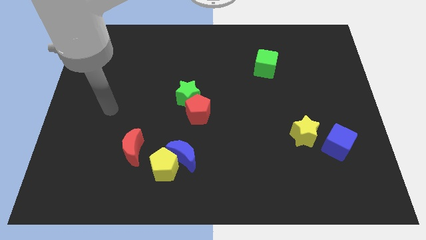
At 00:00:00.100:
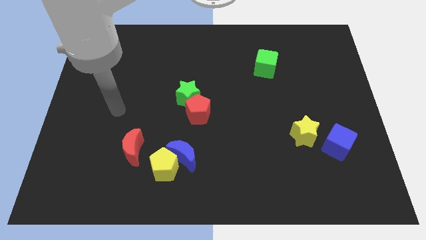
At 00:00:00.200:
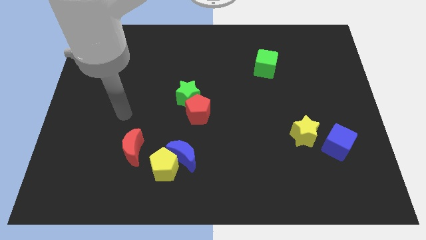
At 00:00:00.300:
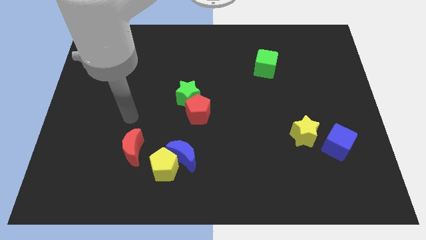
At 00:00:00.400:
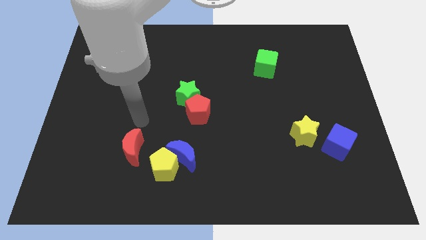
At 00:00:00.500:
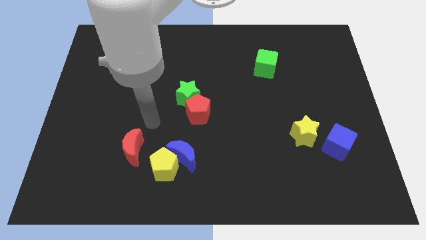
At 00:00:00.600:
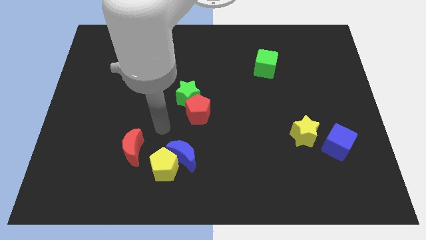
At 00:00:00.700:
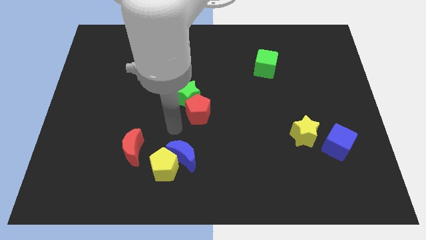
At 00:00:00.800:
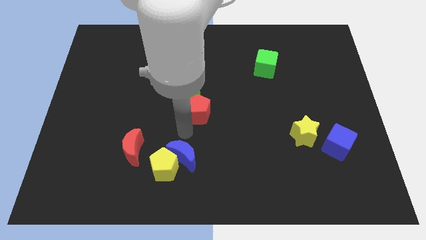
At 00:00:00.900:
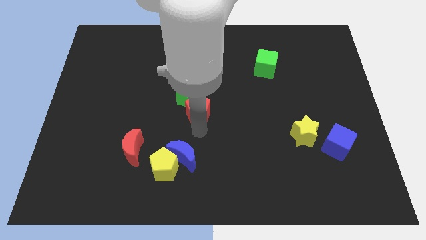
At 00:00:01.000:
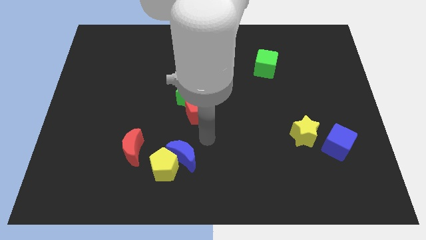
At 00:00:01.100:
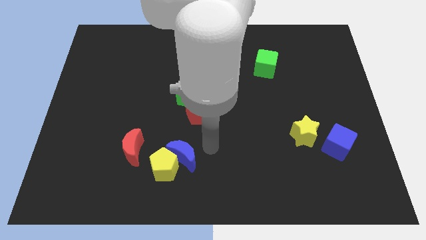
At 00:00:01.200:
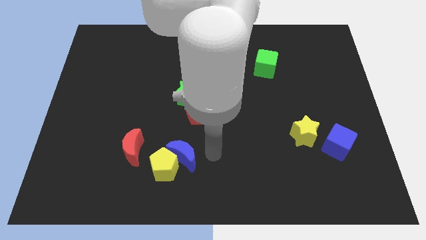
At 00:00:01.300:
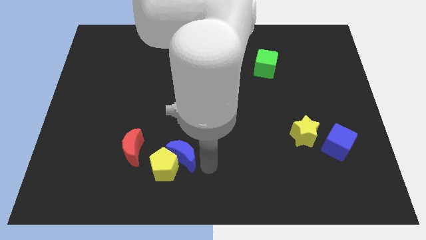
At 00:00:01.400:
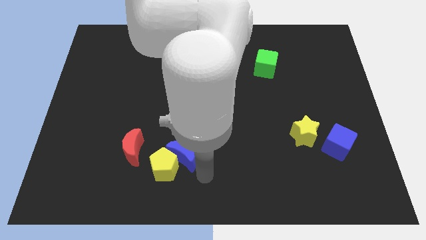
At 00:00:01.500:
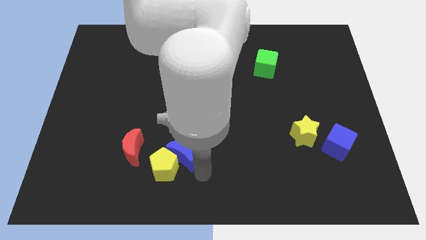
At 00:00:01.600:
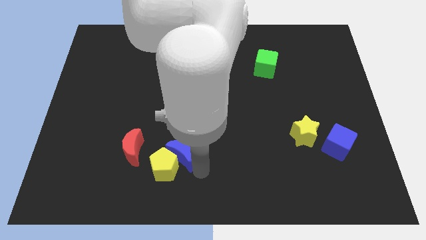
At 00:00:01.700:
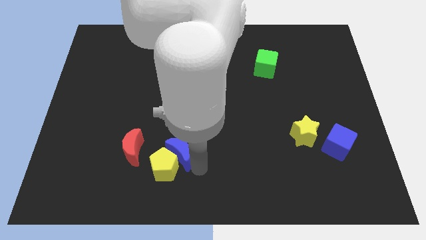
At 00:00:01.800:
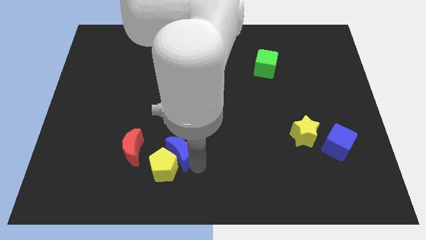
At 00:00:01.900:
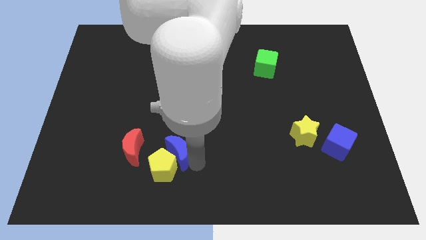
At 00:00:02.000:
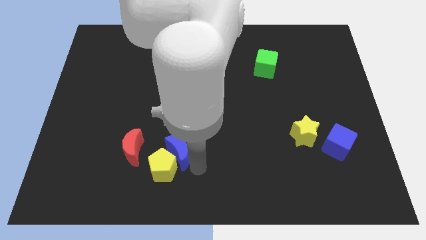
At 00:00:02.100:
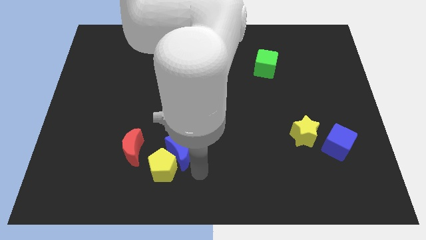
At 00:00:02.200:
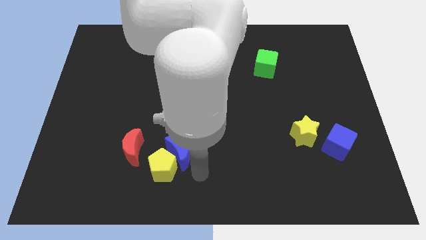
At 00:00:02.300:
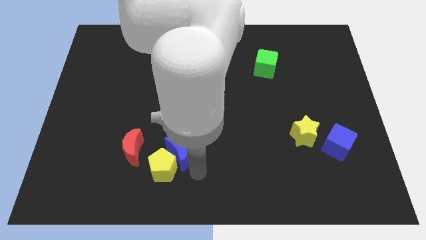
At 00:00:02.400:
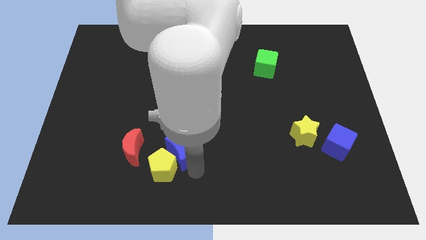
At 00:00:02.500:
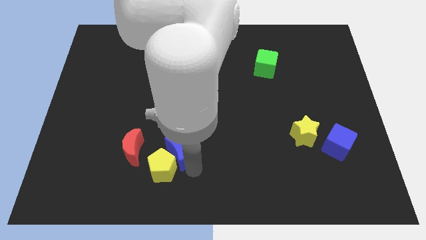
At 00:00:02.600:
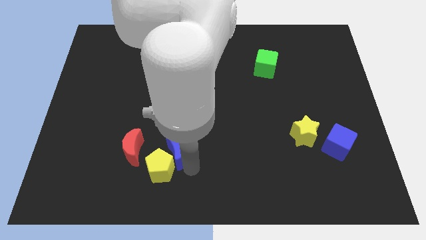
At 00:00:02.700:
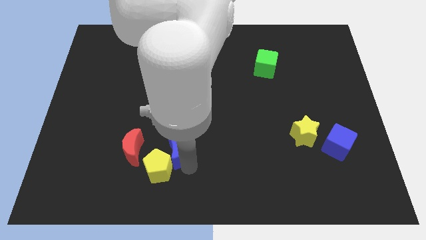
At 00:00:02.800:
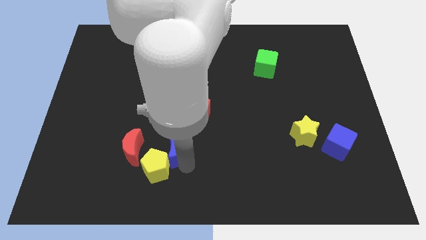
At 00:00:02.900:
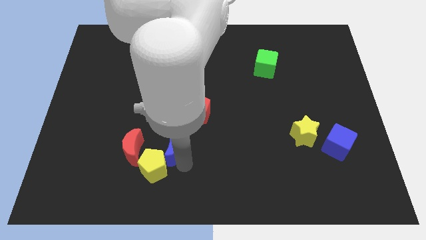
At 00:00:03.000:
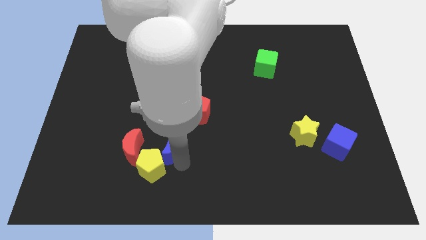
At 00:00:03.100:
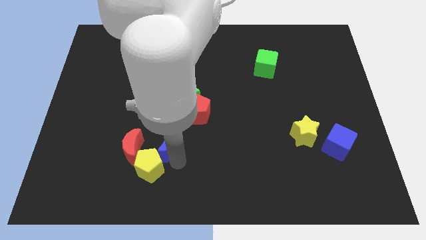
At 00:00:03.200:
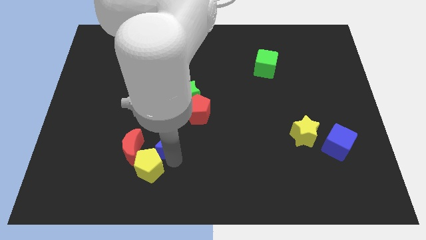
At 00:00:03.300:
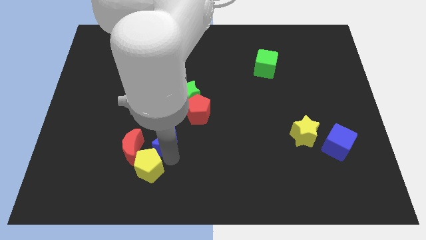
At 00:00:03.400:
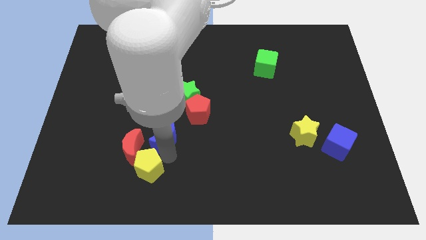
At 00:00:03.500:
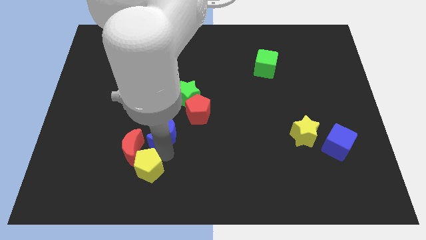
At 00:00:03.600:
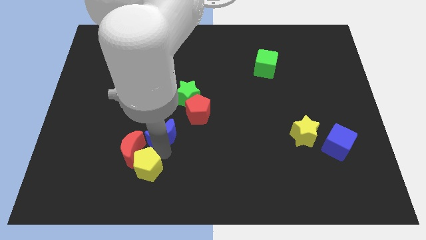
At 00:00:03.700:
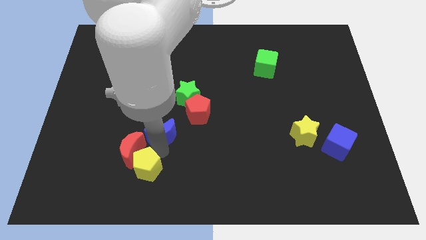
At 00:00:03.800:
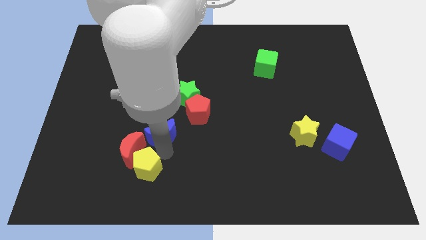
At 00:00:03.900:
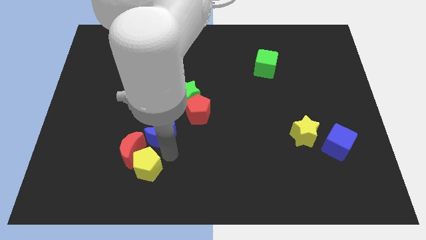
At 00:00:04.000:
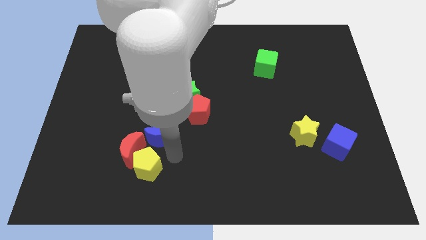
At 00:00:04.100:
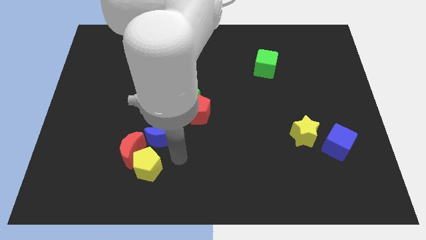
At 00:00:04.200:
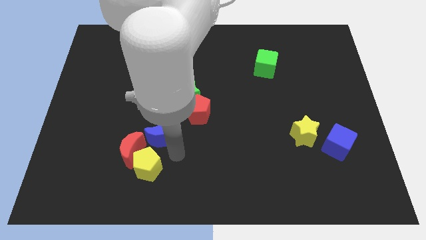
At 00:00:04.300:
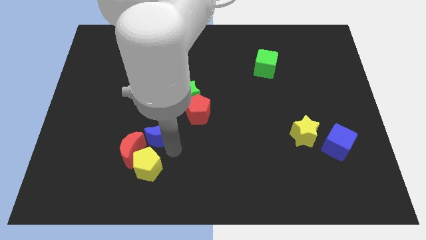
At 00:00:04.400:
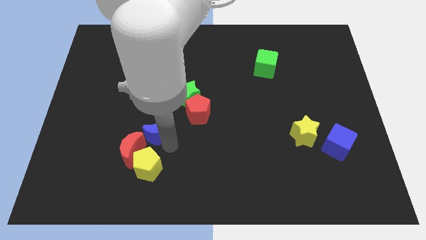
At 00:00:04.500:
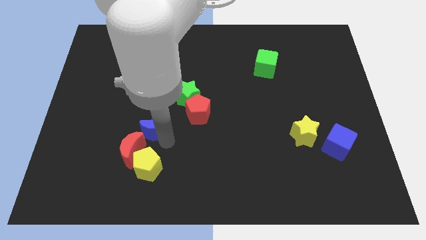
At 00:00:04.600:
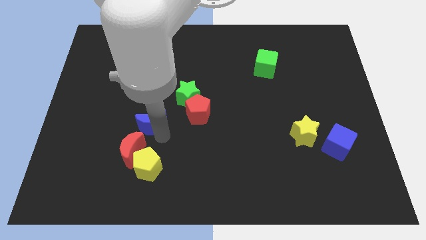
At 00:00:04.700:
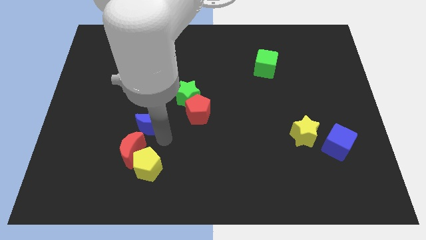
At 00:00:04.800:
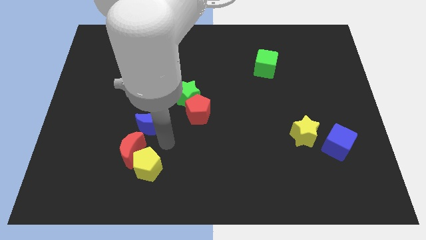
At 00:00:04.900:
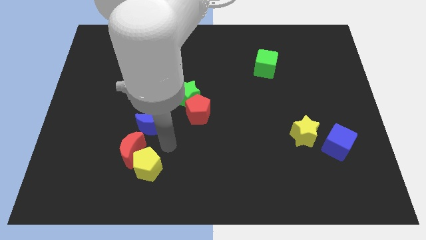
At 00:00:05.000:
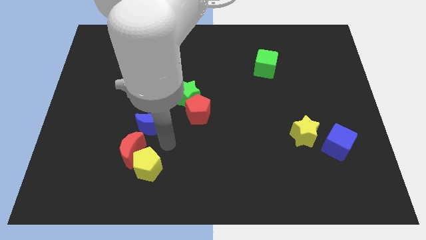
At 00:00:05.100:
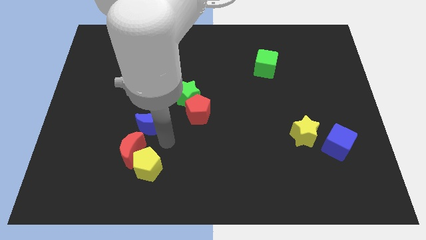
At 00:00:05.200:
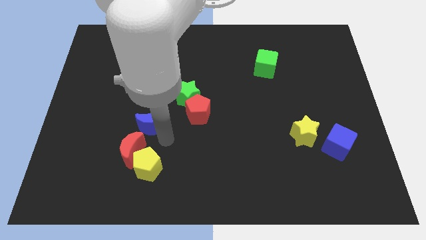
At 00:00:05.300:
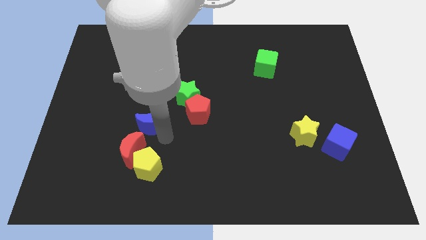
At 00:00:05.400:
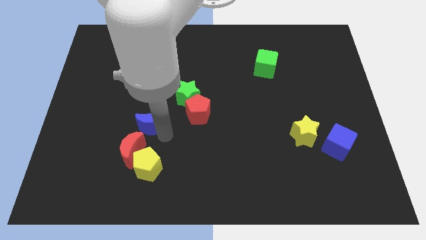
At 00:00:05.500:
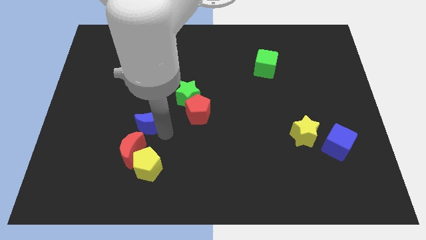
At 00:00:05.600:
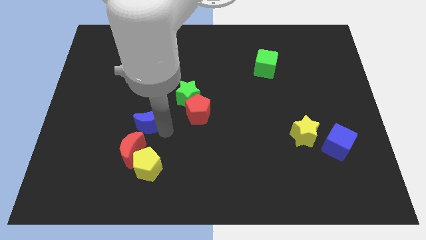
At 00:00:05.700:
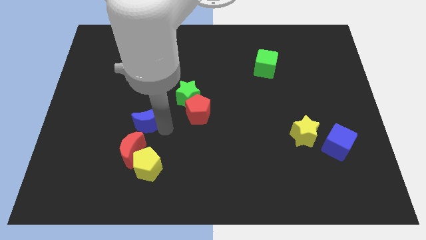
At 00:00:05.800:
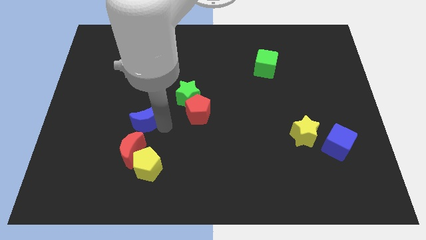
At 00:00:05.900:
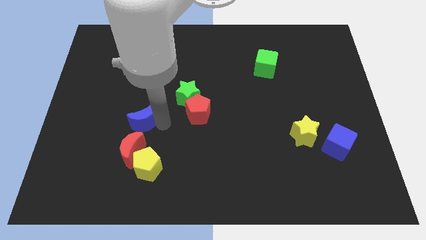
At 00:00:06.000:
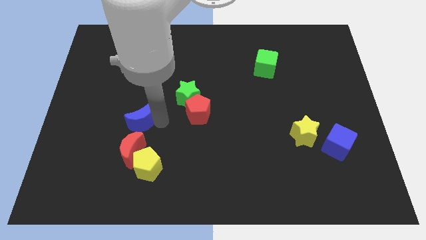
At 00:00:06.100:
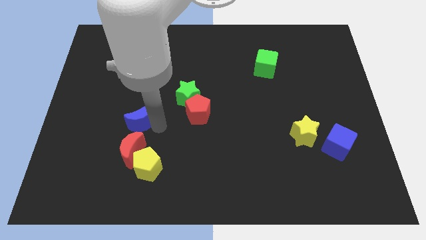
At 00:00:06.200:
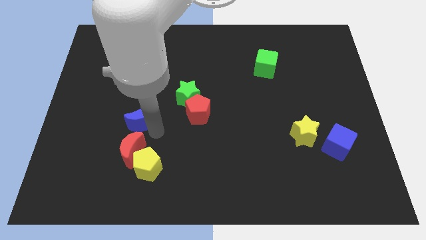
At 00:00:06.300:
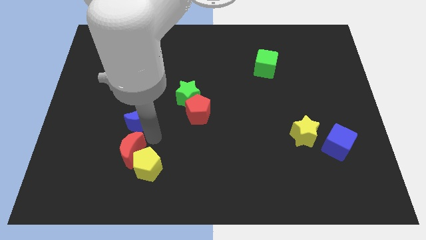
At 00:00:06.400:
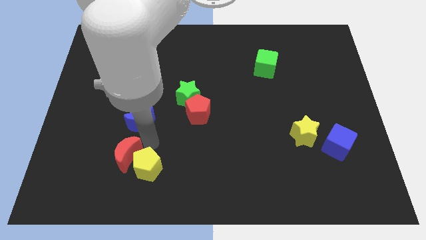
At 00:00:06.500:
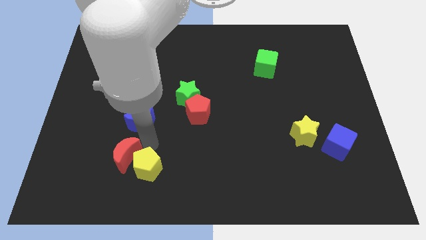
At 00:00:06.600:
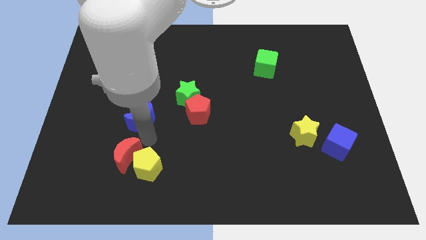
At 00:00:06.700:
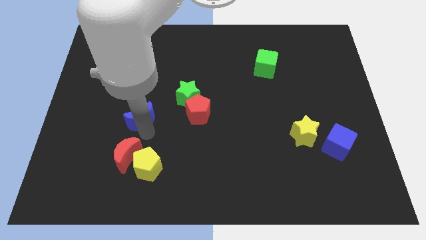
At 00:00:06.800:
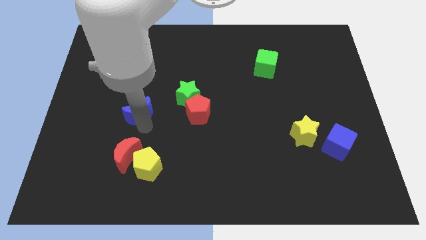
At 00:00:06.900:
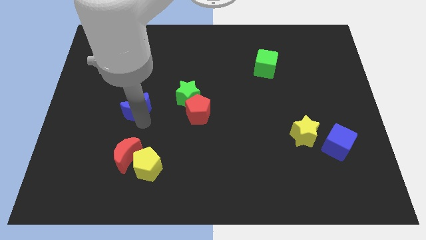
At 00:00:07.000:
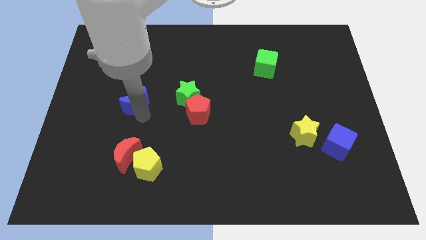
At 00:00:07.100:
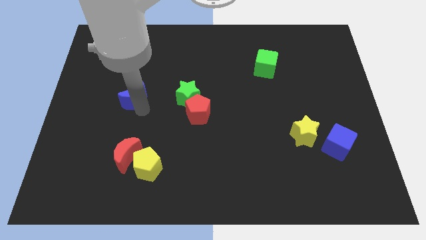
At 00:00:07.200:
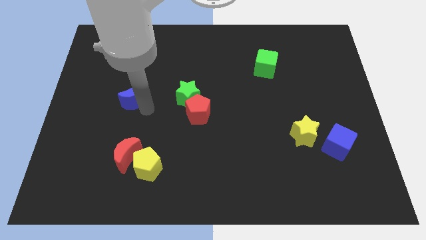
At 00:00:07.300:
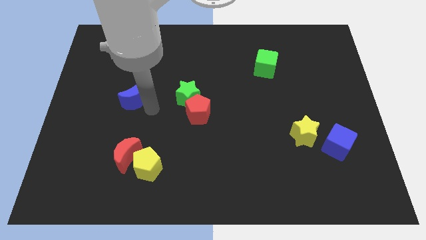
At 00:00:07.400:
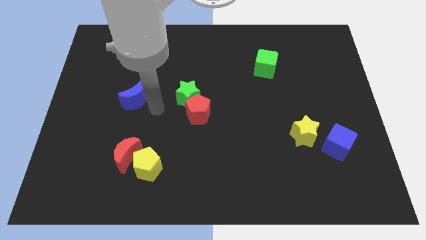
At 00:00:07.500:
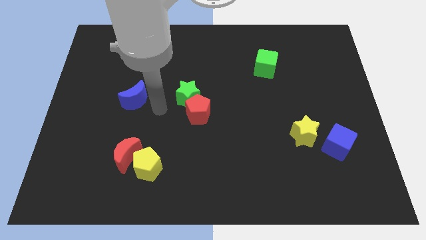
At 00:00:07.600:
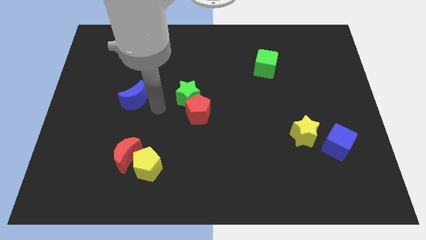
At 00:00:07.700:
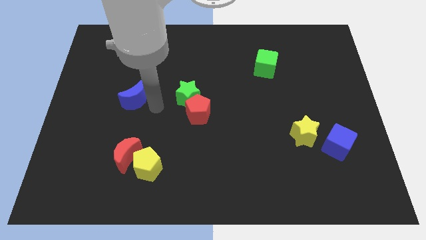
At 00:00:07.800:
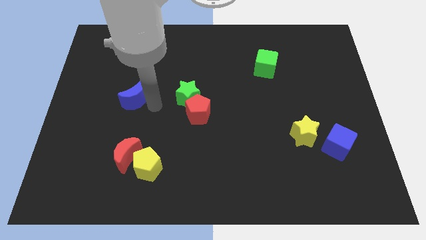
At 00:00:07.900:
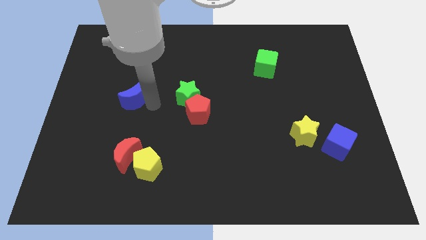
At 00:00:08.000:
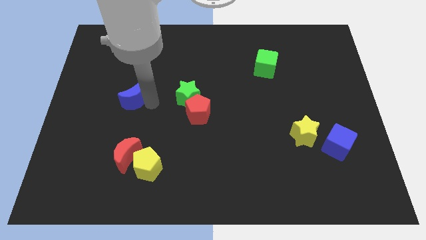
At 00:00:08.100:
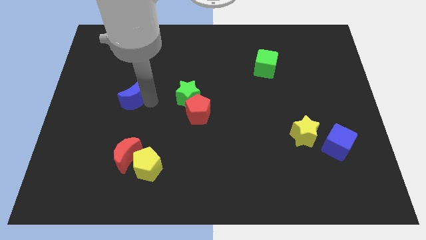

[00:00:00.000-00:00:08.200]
push the blue moon diagonally upwards and to the left
